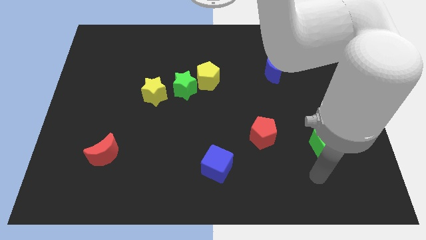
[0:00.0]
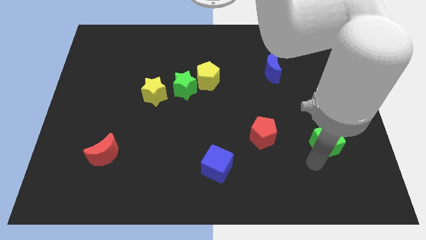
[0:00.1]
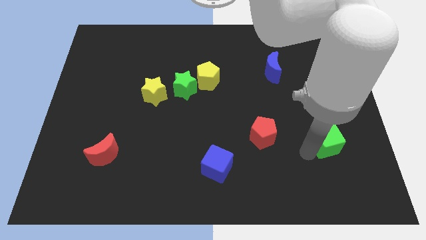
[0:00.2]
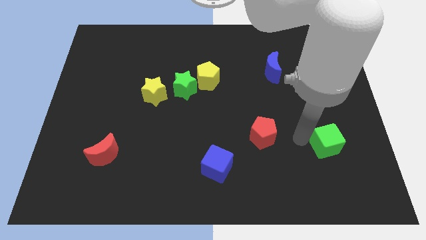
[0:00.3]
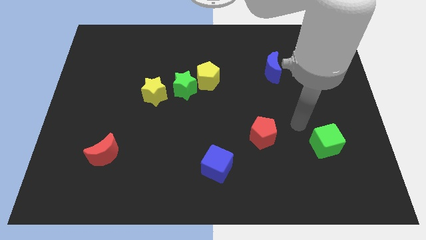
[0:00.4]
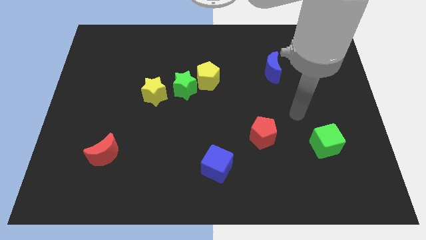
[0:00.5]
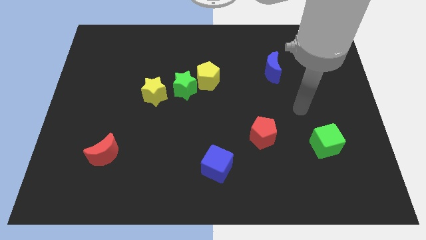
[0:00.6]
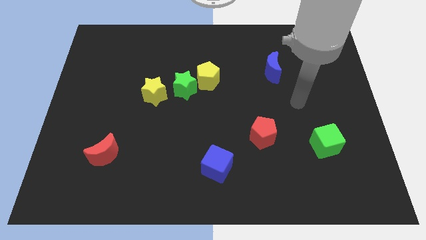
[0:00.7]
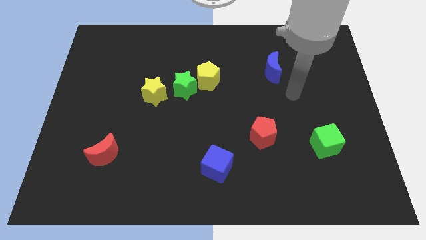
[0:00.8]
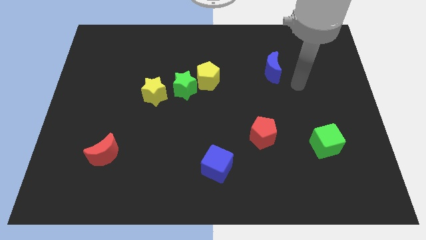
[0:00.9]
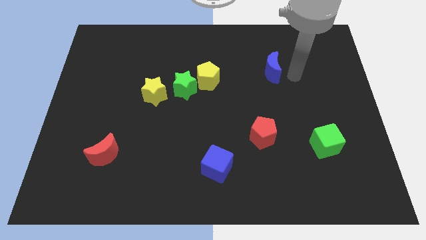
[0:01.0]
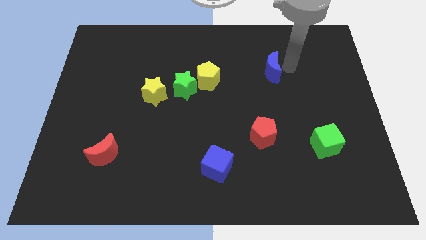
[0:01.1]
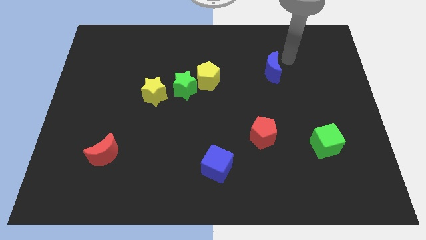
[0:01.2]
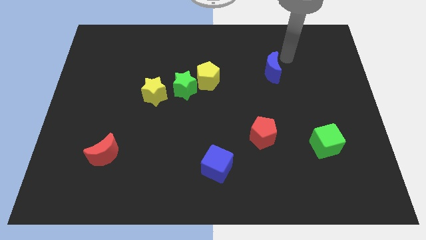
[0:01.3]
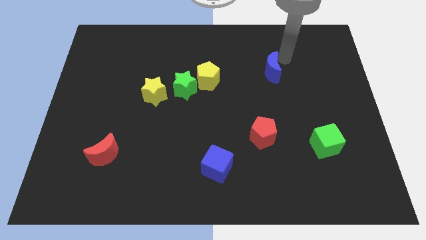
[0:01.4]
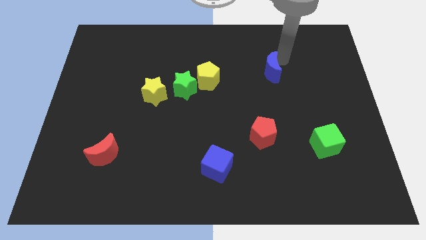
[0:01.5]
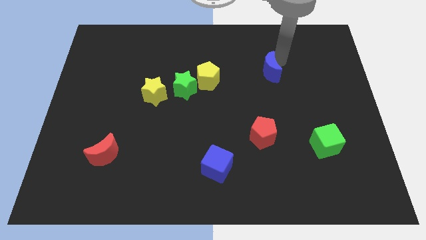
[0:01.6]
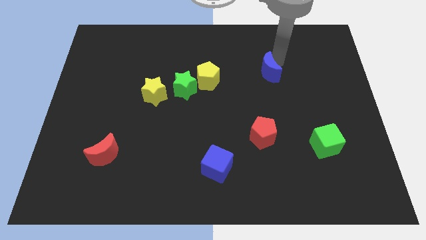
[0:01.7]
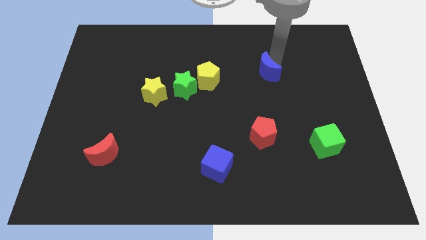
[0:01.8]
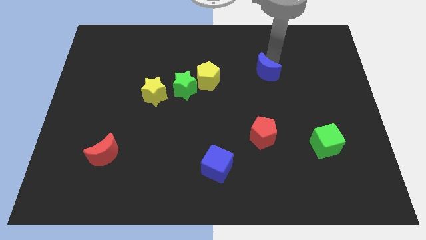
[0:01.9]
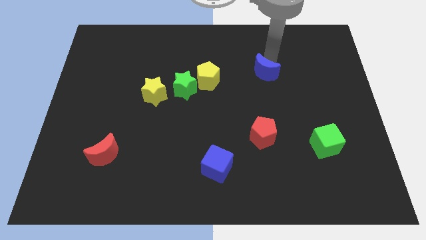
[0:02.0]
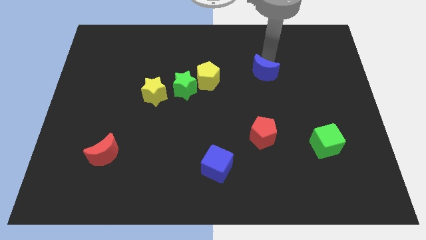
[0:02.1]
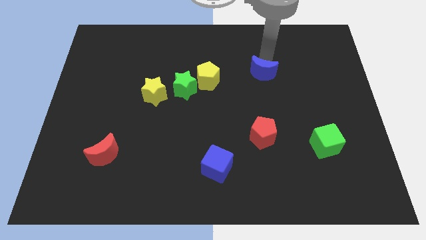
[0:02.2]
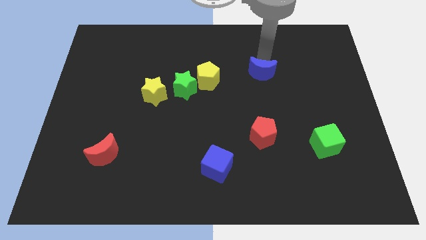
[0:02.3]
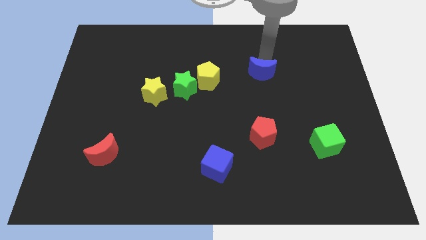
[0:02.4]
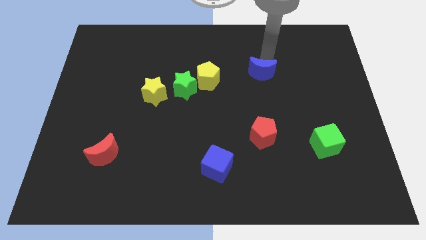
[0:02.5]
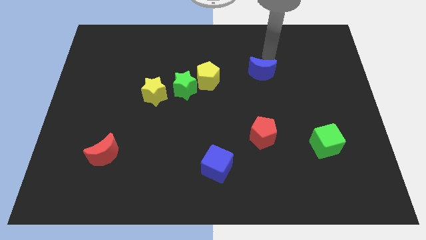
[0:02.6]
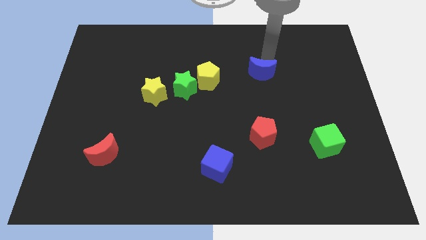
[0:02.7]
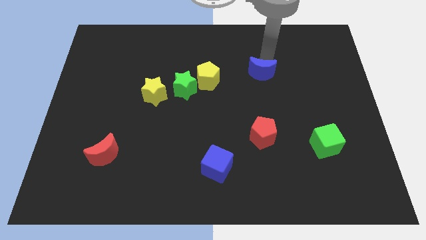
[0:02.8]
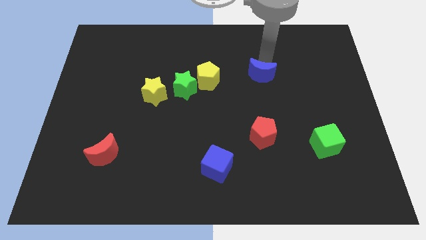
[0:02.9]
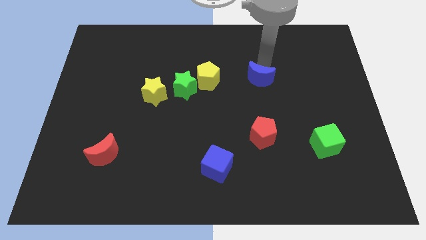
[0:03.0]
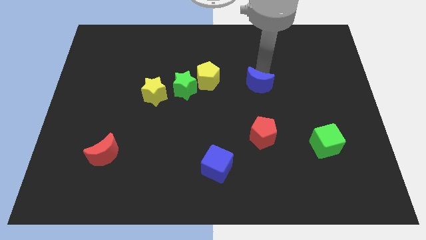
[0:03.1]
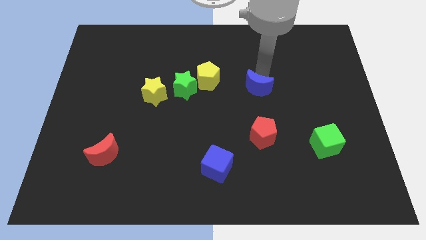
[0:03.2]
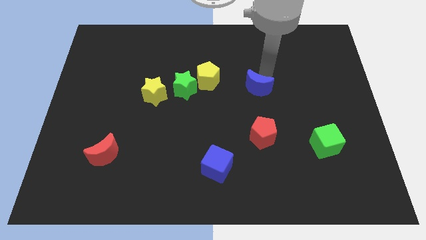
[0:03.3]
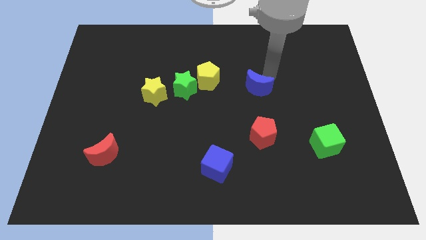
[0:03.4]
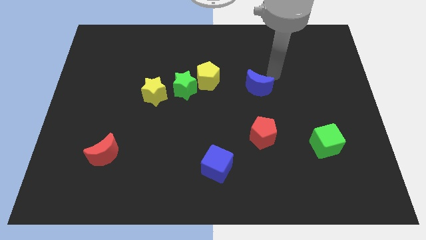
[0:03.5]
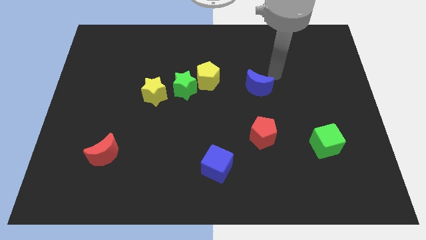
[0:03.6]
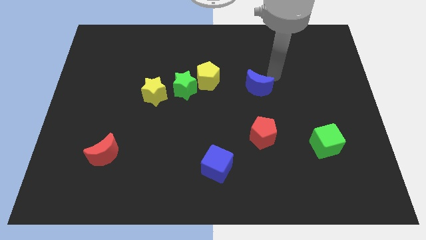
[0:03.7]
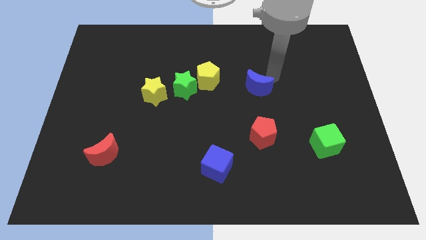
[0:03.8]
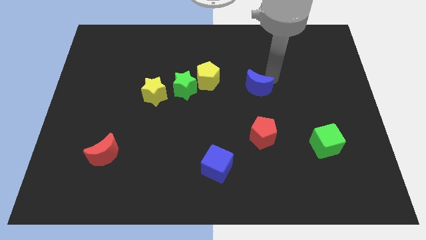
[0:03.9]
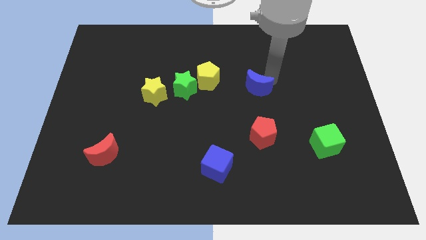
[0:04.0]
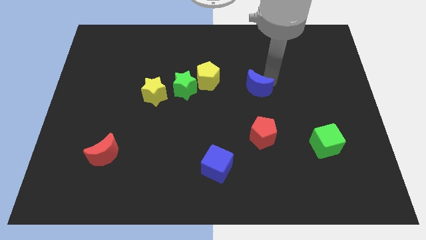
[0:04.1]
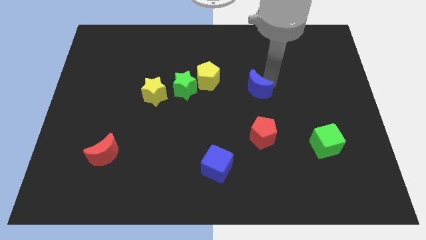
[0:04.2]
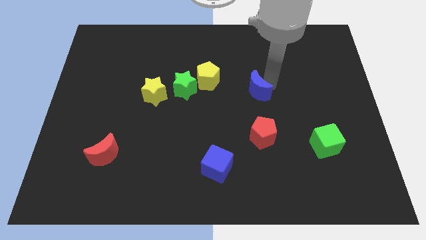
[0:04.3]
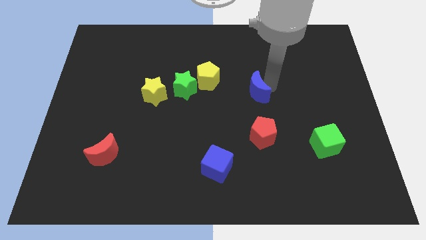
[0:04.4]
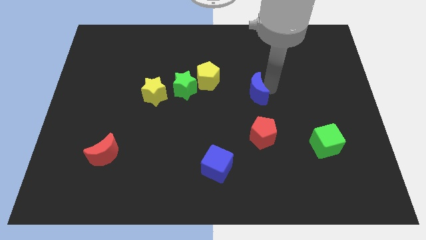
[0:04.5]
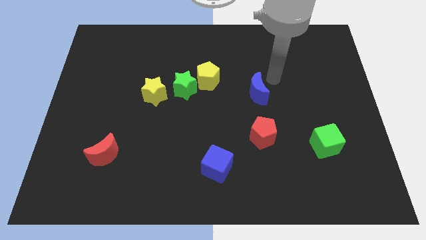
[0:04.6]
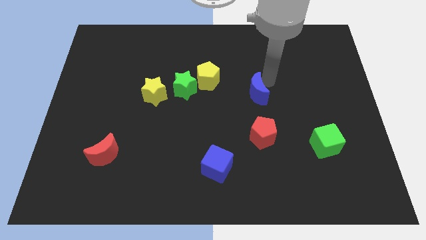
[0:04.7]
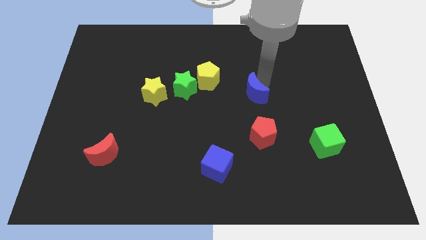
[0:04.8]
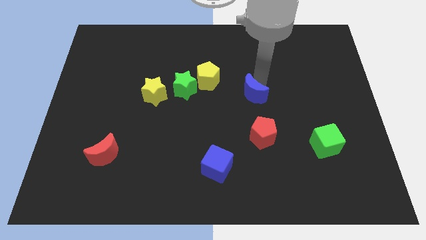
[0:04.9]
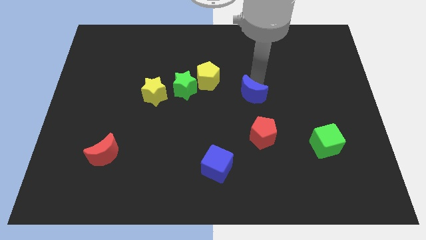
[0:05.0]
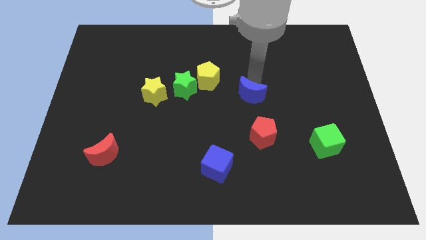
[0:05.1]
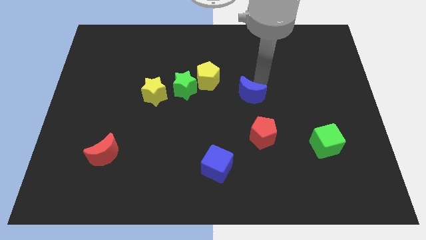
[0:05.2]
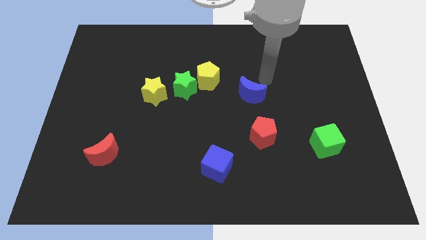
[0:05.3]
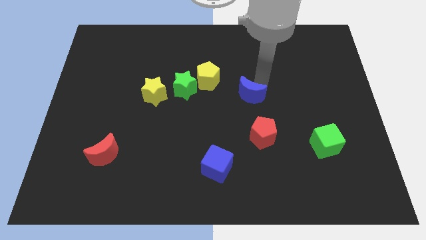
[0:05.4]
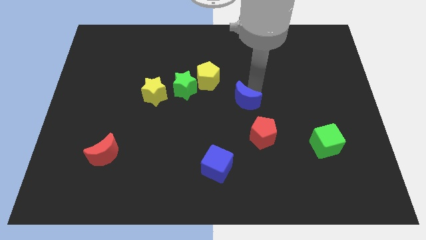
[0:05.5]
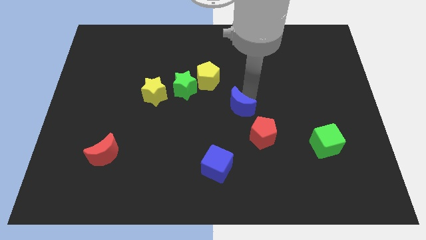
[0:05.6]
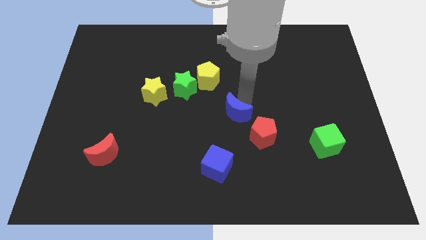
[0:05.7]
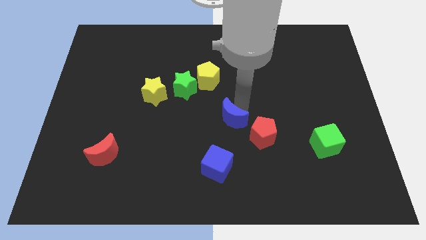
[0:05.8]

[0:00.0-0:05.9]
move the blue moon to the top of the blue cube
